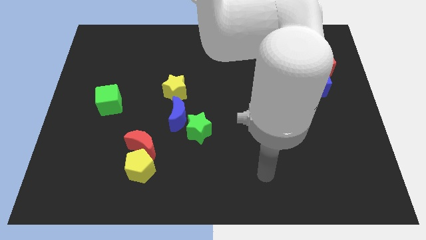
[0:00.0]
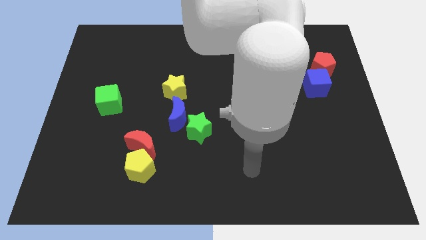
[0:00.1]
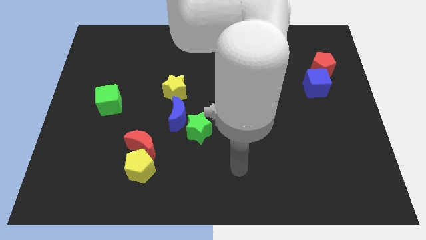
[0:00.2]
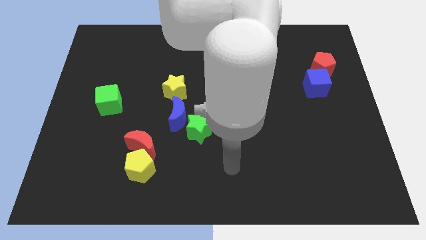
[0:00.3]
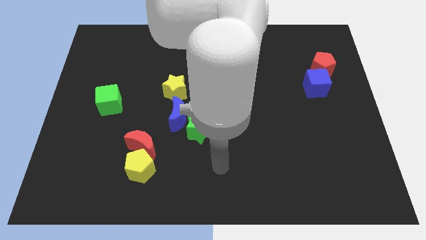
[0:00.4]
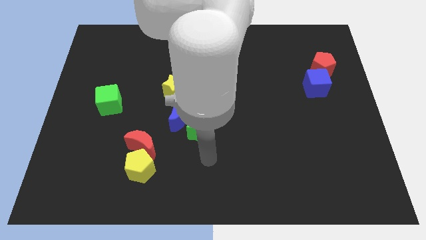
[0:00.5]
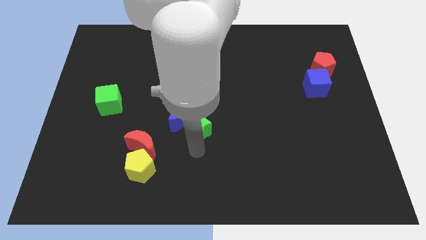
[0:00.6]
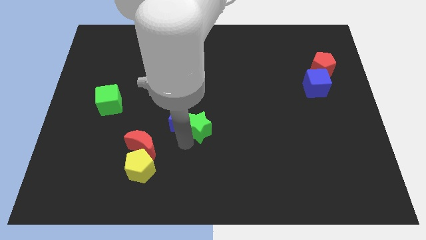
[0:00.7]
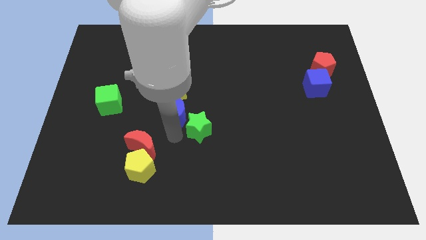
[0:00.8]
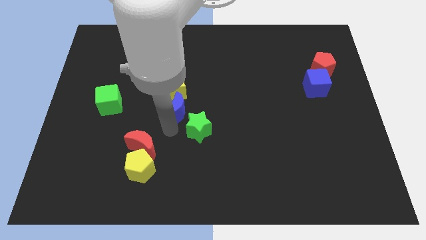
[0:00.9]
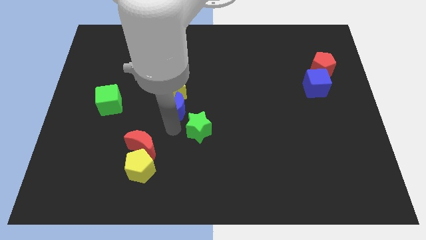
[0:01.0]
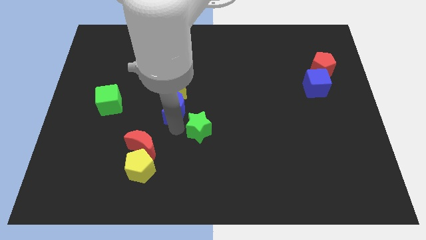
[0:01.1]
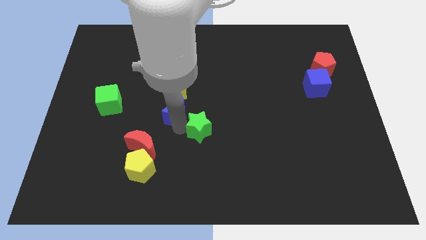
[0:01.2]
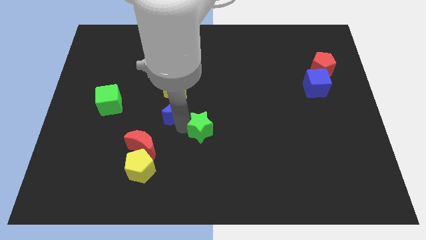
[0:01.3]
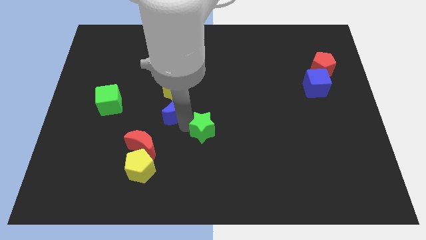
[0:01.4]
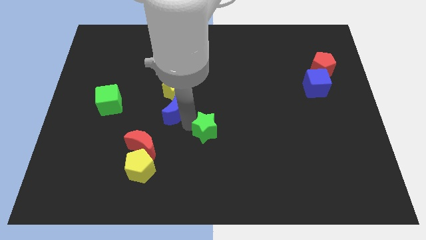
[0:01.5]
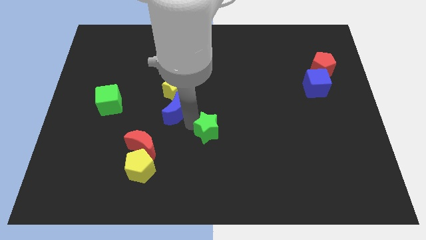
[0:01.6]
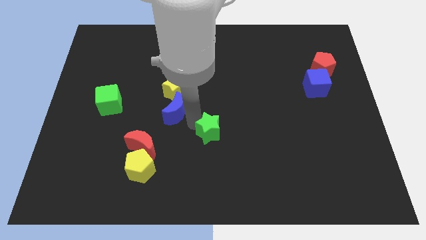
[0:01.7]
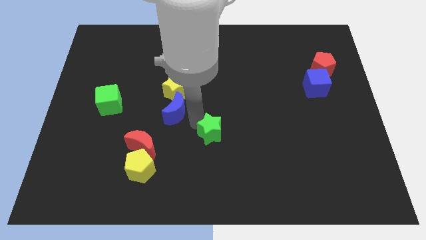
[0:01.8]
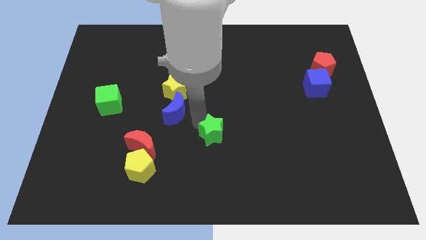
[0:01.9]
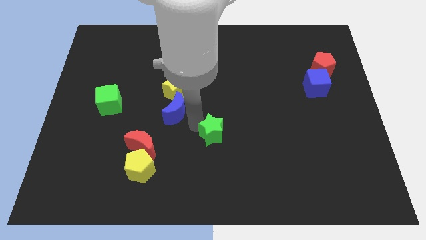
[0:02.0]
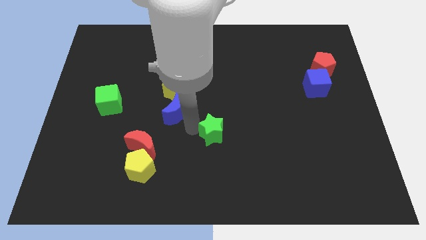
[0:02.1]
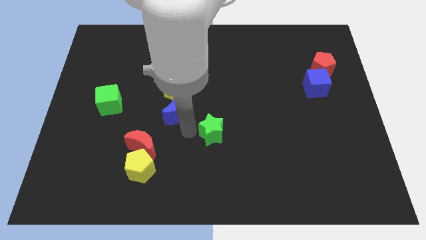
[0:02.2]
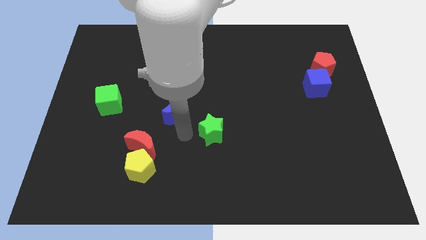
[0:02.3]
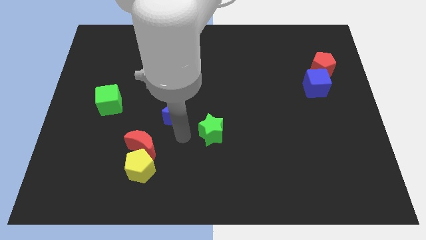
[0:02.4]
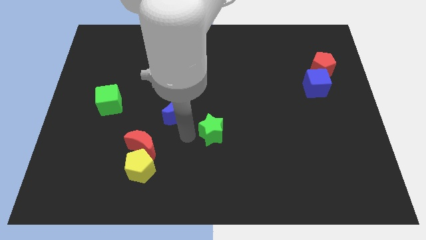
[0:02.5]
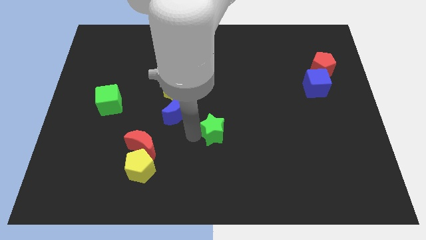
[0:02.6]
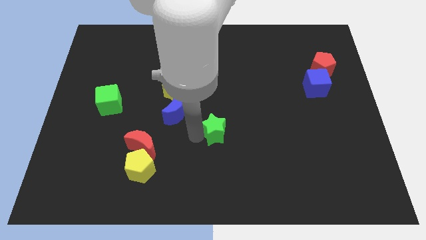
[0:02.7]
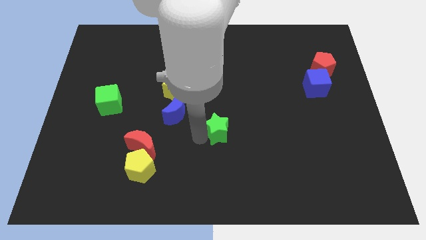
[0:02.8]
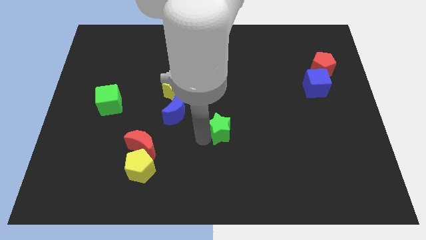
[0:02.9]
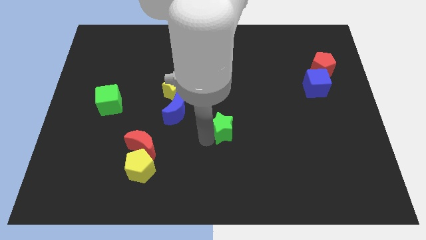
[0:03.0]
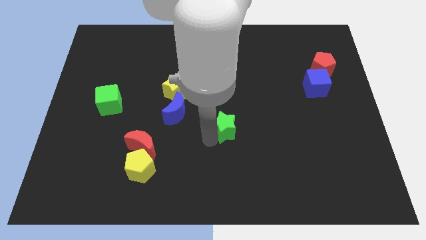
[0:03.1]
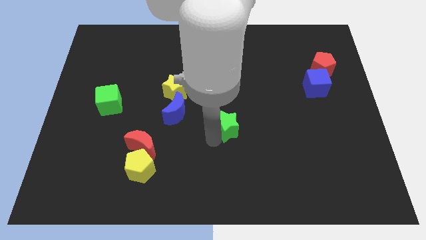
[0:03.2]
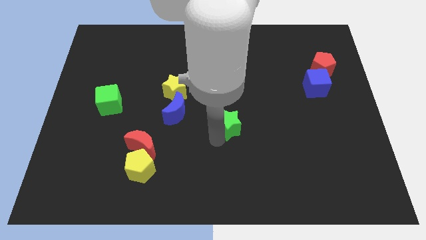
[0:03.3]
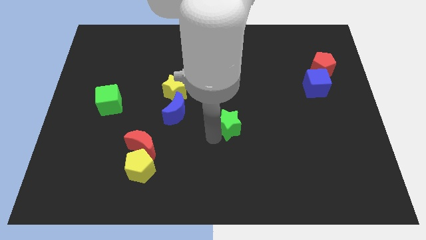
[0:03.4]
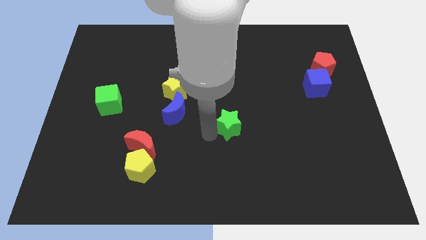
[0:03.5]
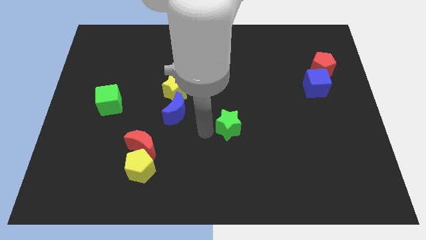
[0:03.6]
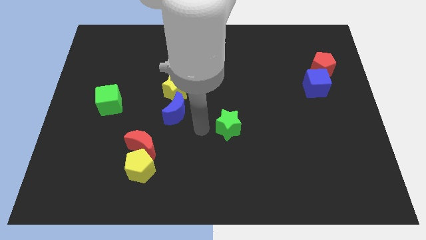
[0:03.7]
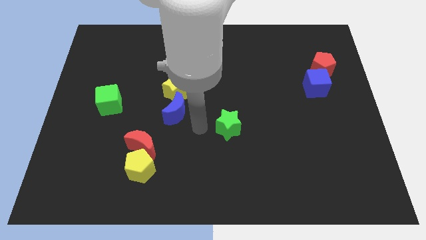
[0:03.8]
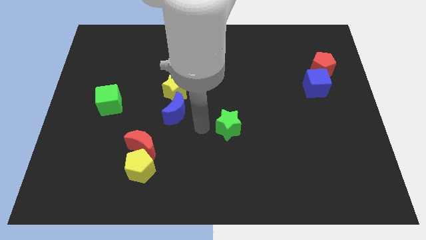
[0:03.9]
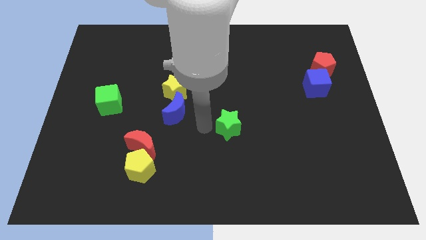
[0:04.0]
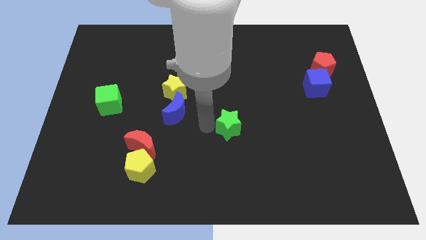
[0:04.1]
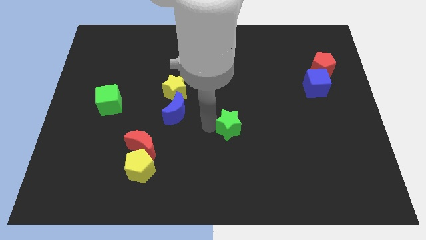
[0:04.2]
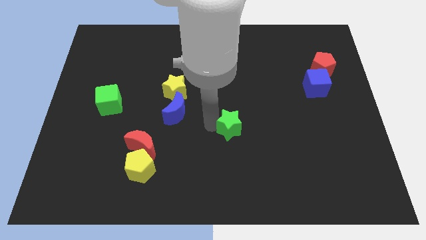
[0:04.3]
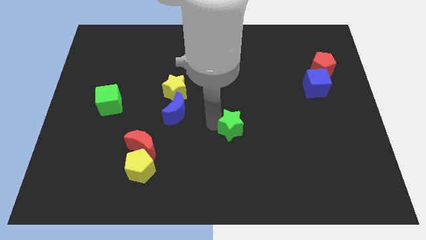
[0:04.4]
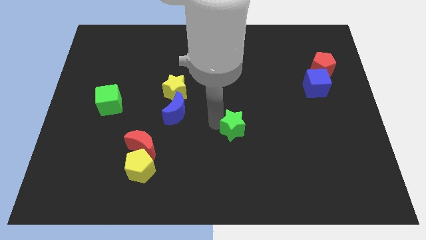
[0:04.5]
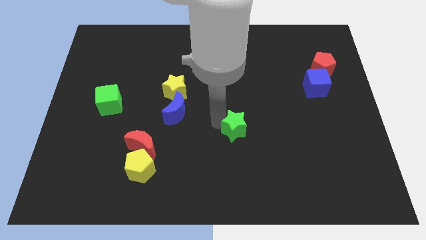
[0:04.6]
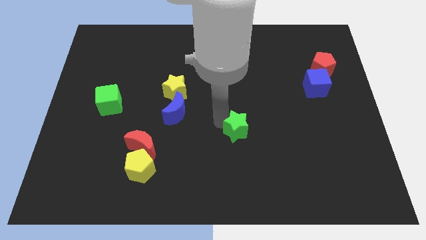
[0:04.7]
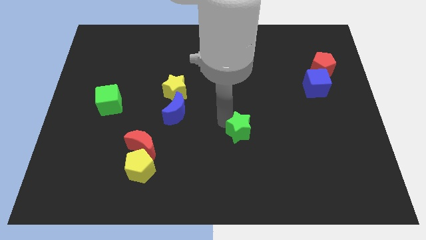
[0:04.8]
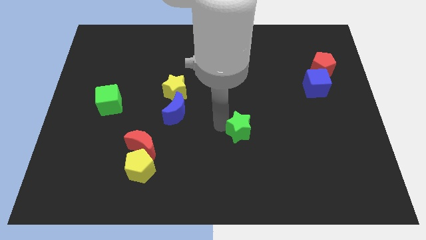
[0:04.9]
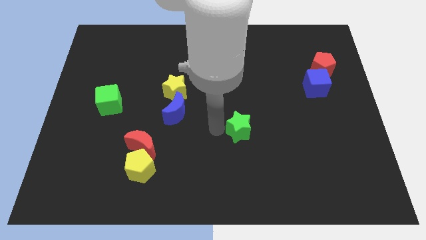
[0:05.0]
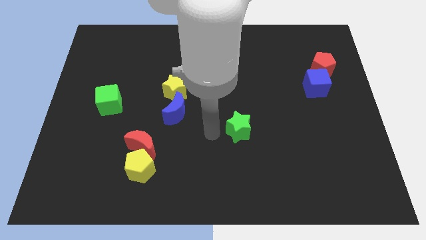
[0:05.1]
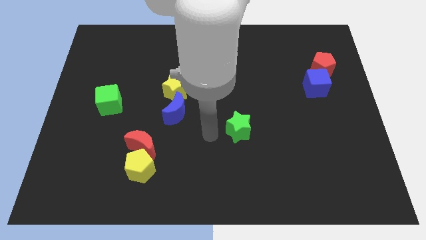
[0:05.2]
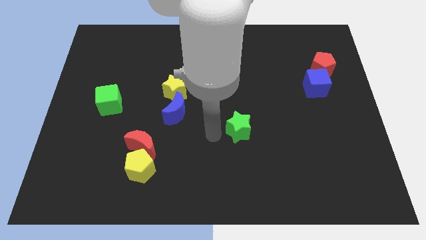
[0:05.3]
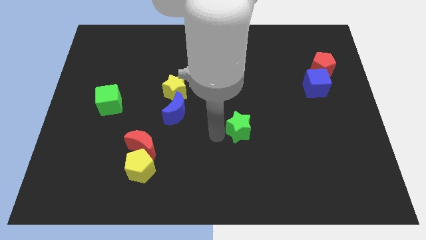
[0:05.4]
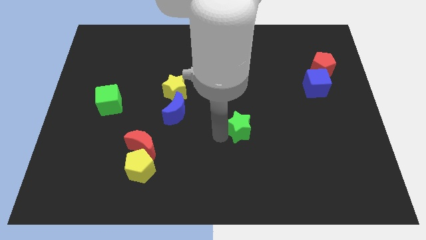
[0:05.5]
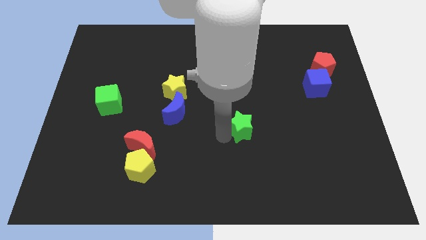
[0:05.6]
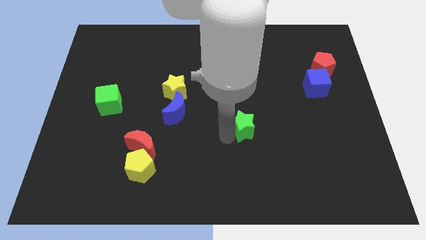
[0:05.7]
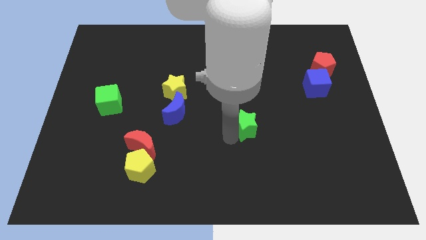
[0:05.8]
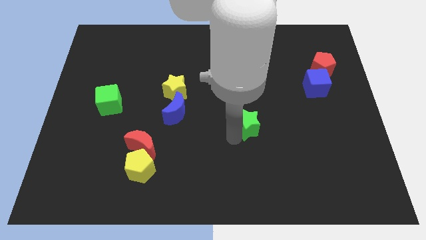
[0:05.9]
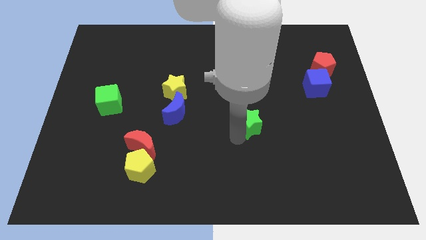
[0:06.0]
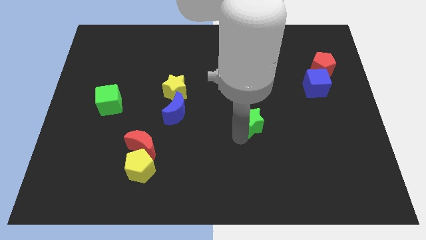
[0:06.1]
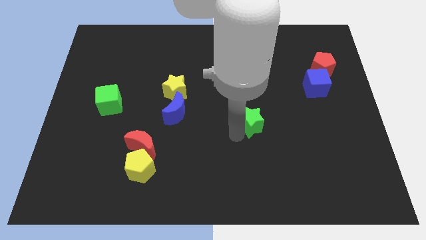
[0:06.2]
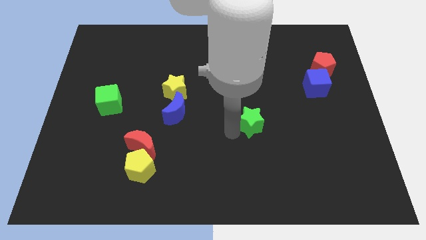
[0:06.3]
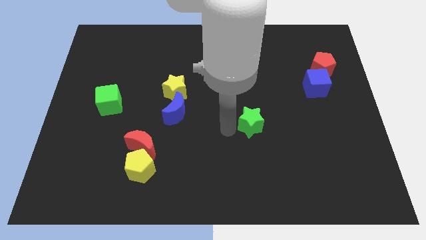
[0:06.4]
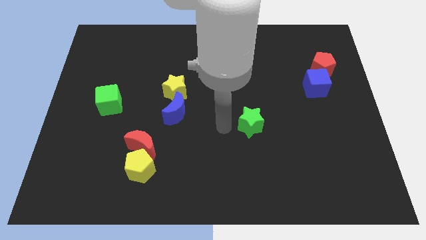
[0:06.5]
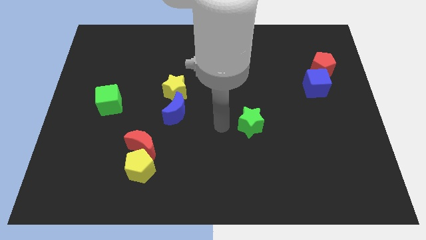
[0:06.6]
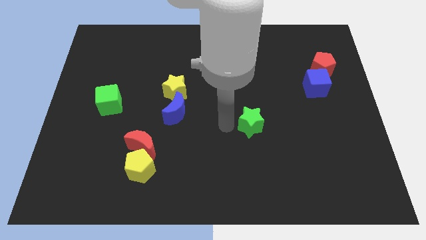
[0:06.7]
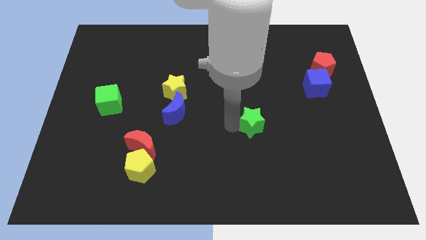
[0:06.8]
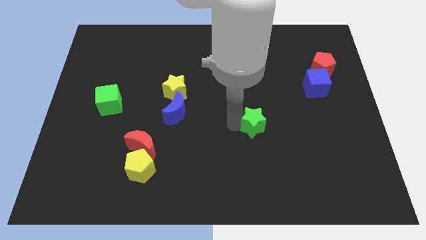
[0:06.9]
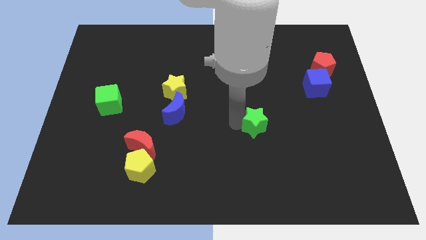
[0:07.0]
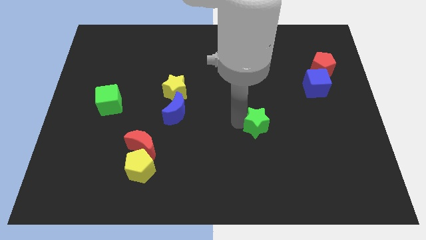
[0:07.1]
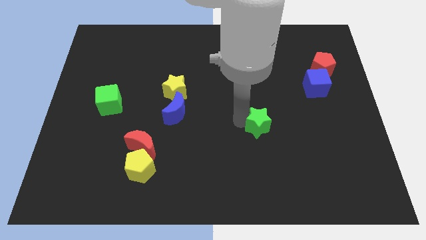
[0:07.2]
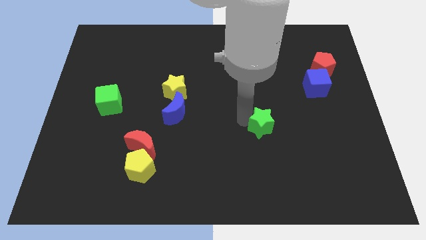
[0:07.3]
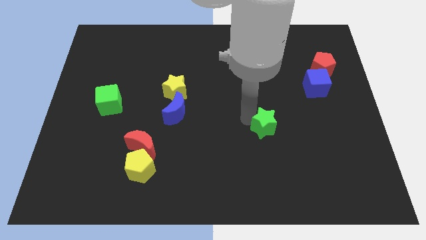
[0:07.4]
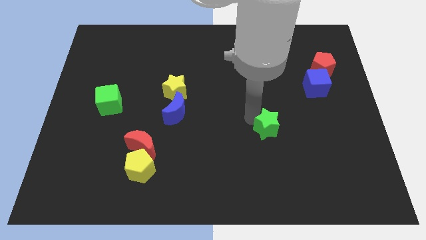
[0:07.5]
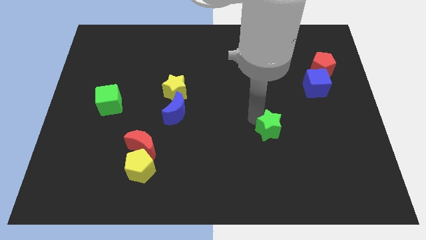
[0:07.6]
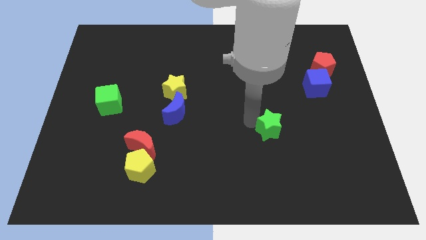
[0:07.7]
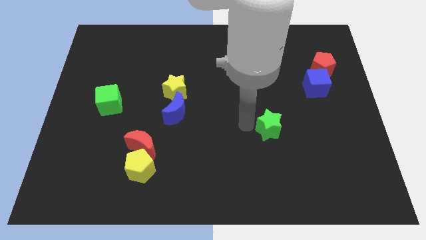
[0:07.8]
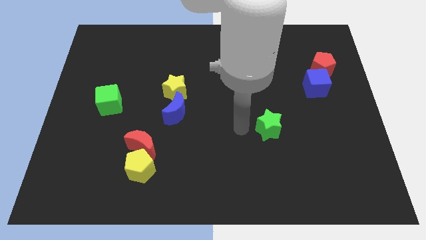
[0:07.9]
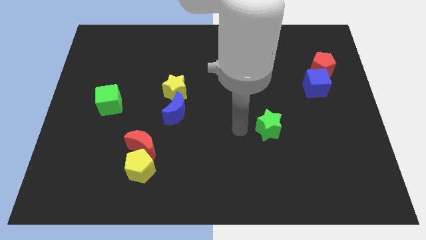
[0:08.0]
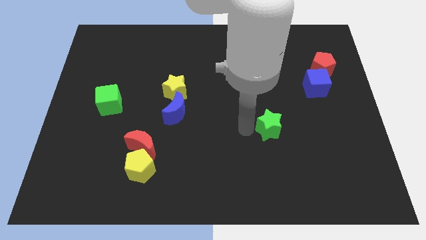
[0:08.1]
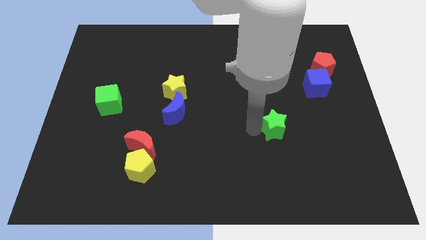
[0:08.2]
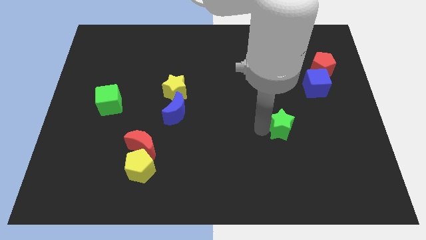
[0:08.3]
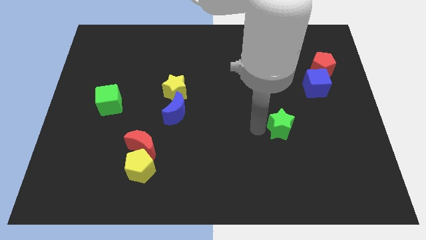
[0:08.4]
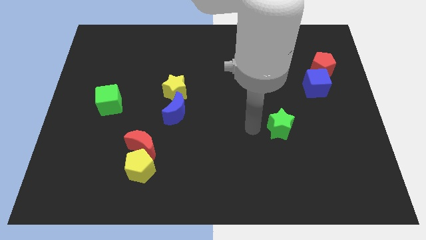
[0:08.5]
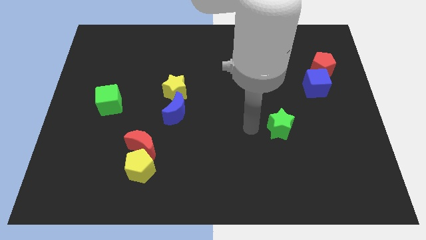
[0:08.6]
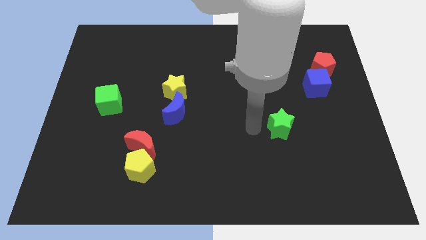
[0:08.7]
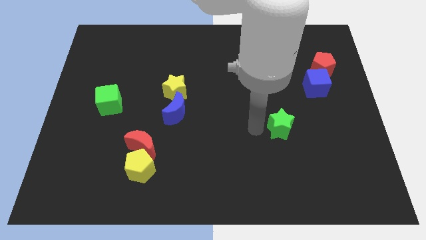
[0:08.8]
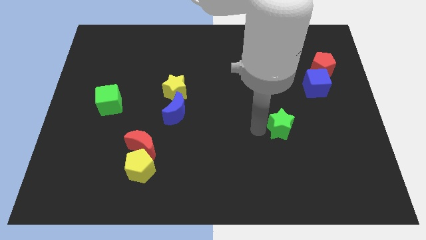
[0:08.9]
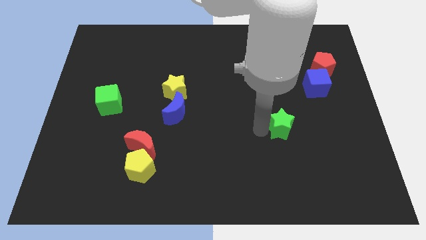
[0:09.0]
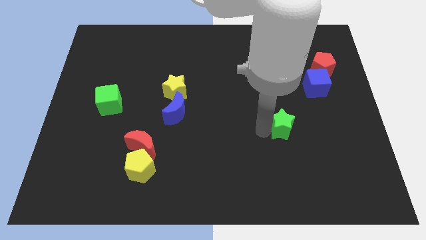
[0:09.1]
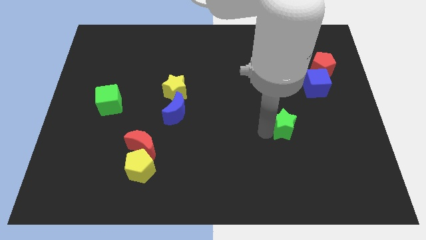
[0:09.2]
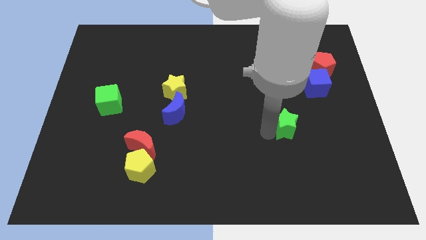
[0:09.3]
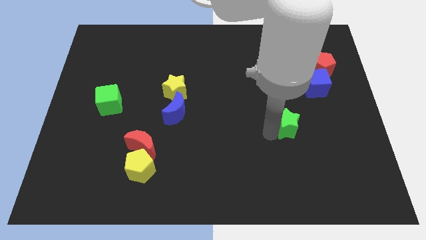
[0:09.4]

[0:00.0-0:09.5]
move the green star to the right
